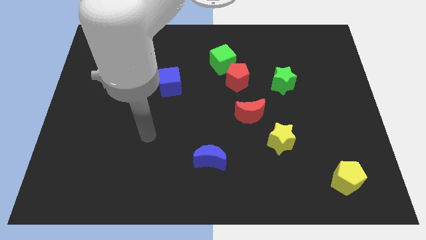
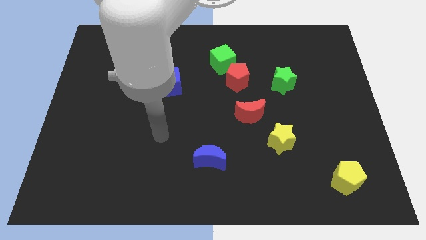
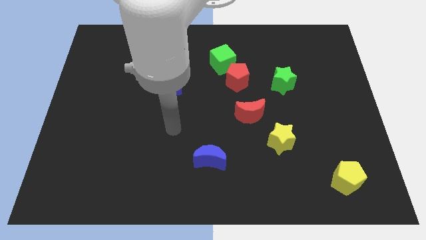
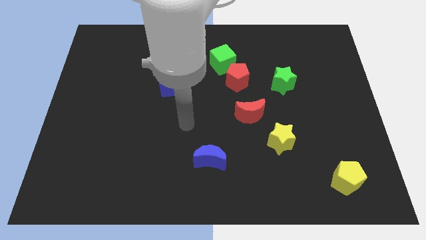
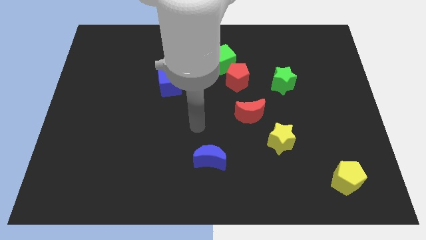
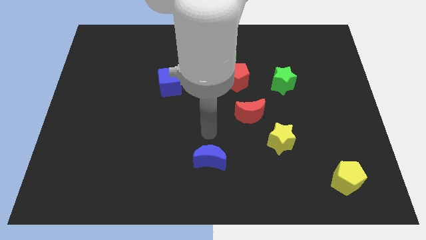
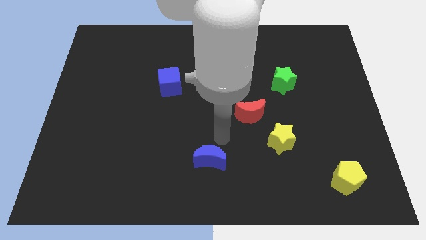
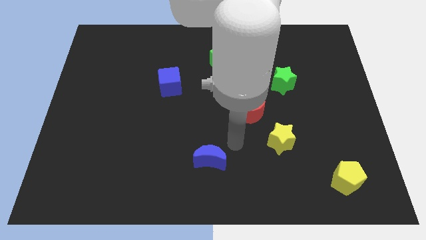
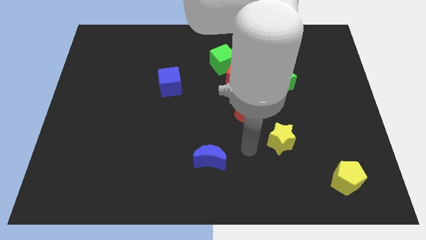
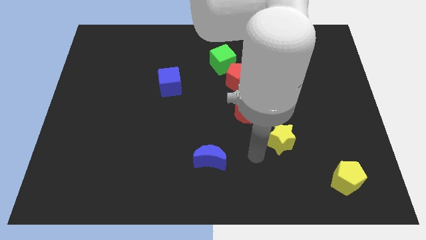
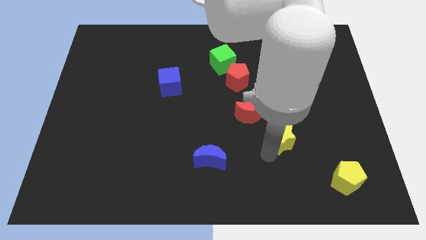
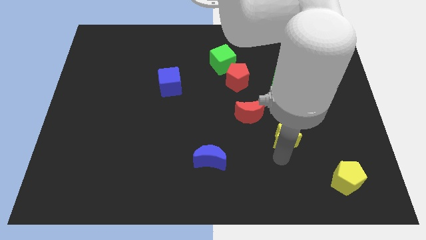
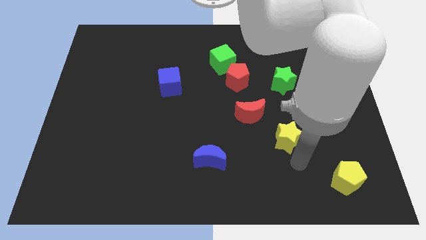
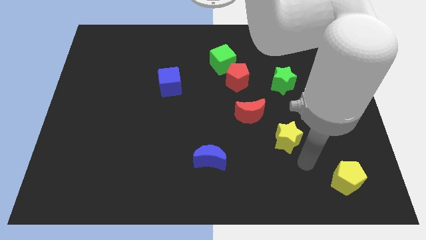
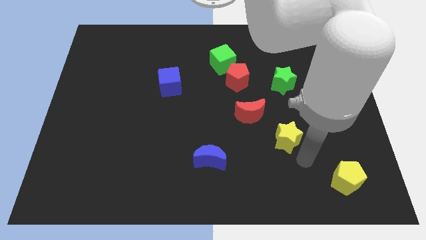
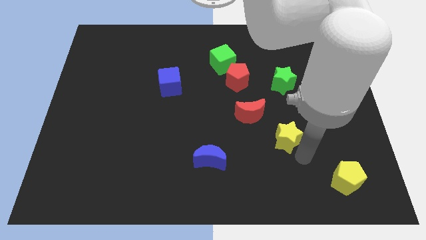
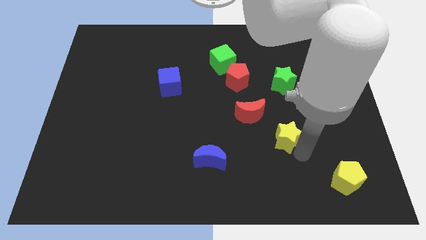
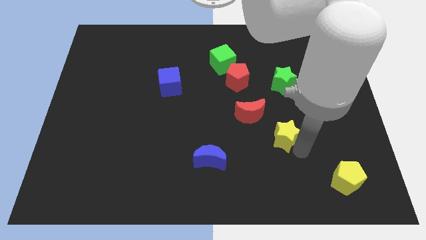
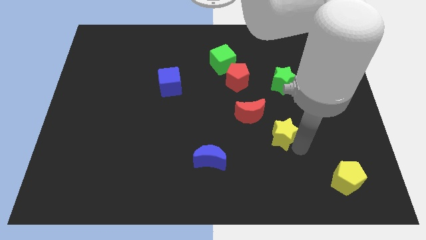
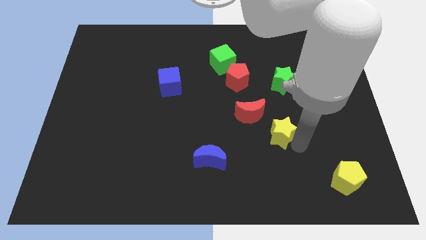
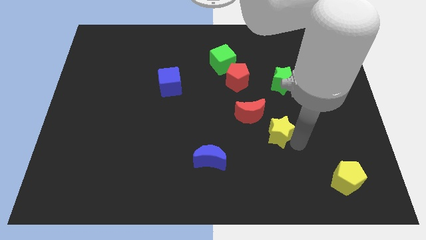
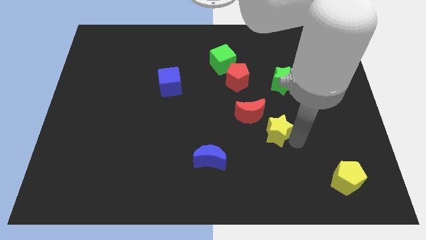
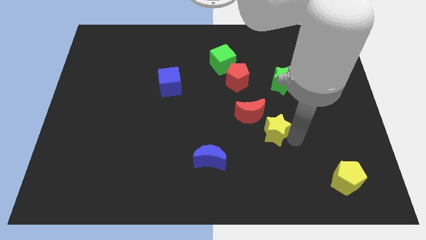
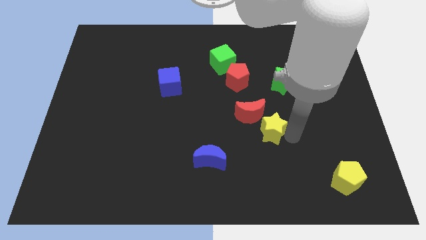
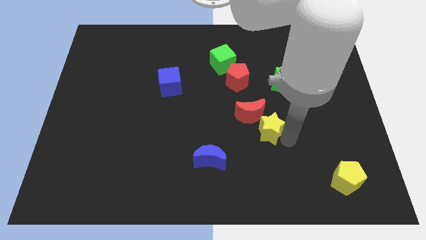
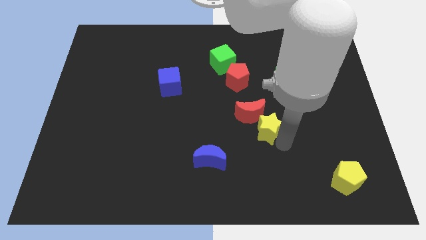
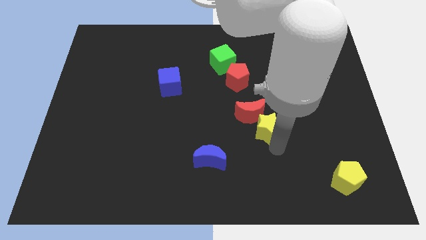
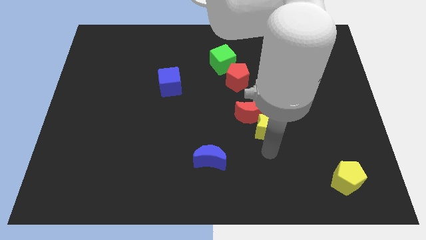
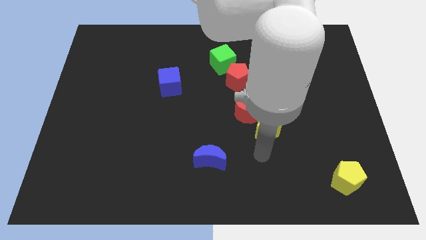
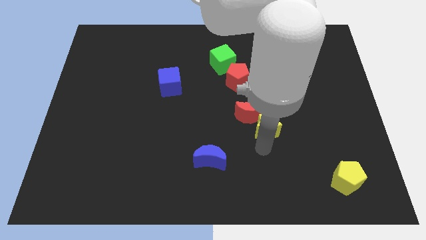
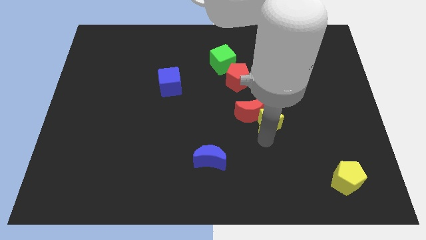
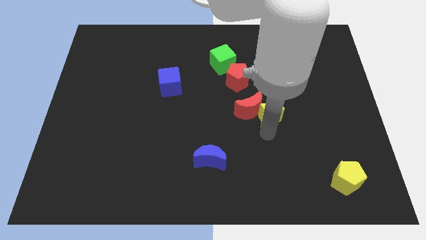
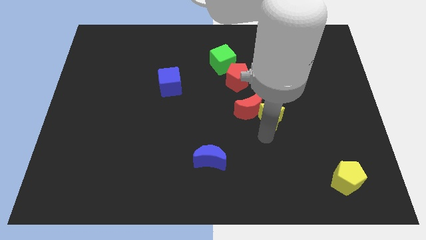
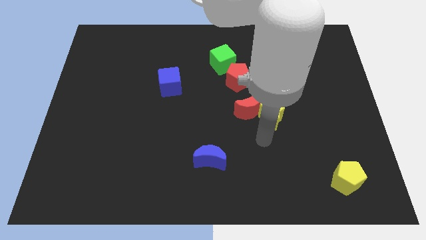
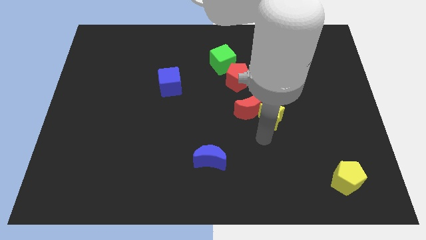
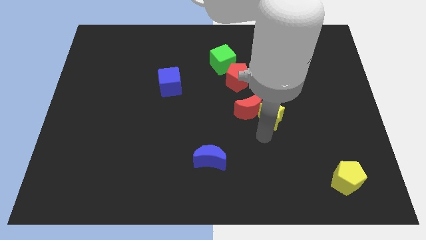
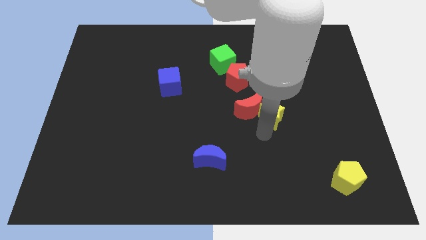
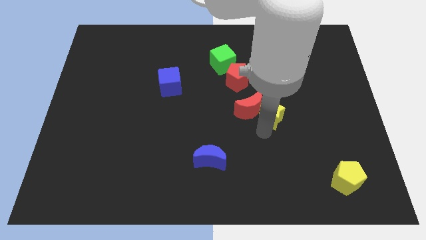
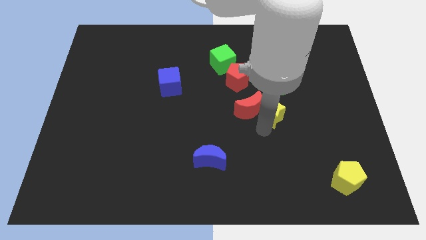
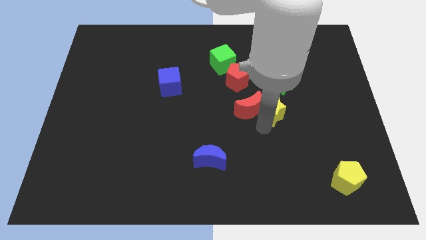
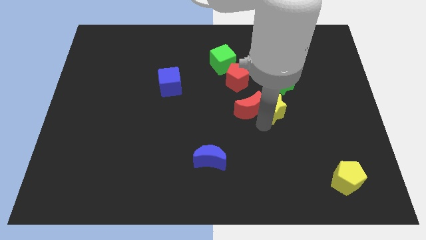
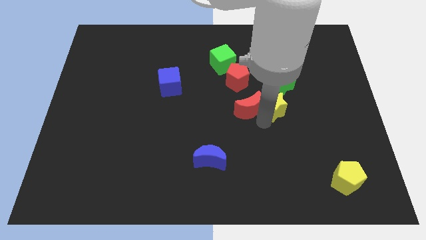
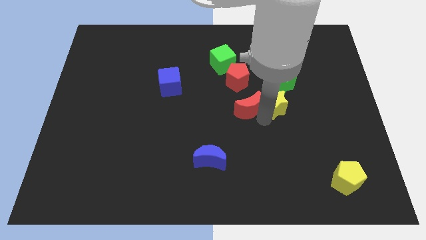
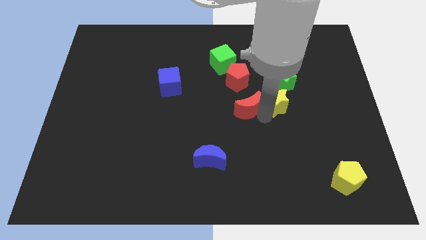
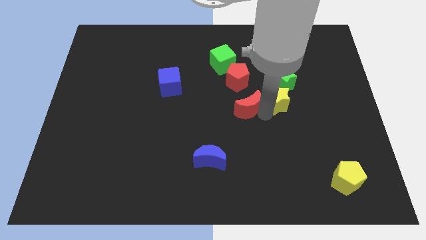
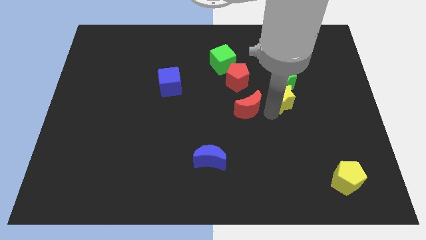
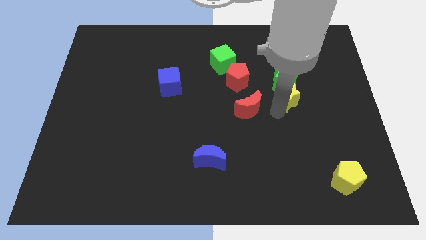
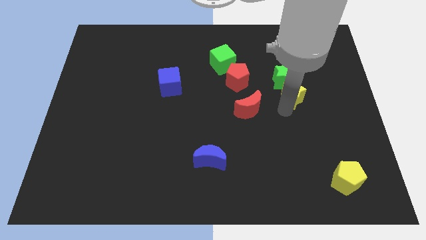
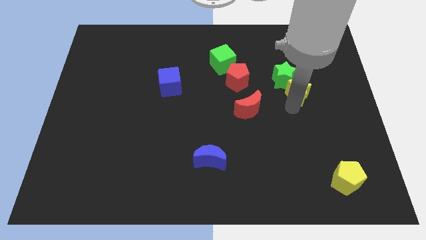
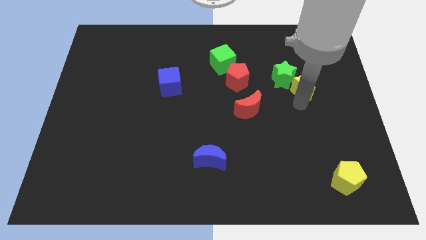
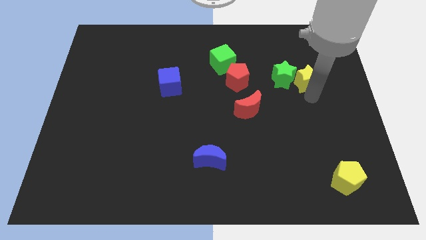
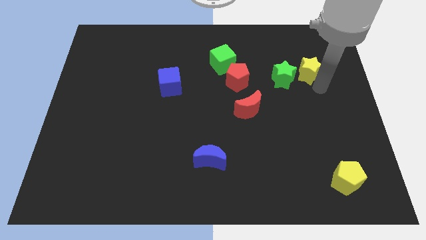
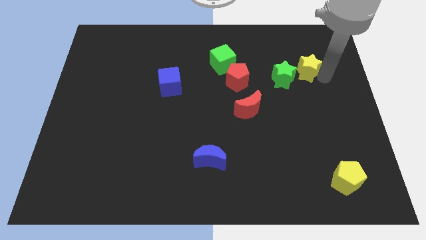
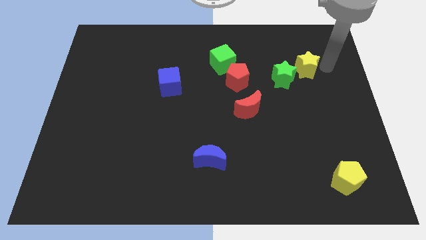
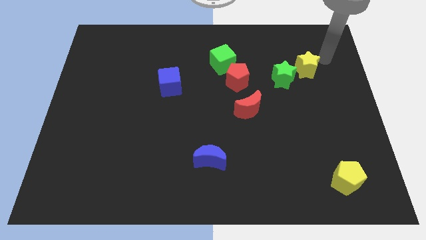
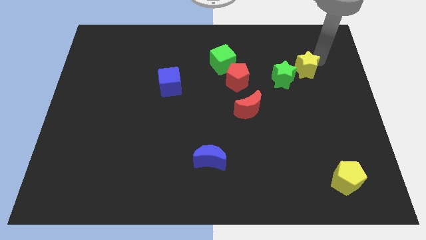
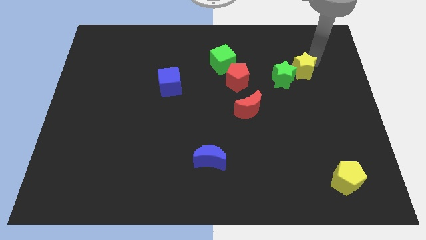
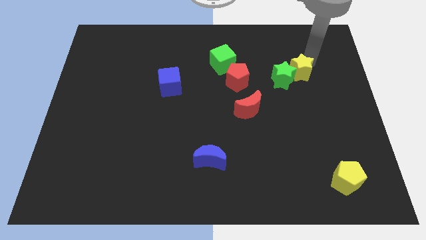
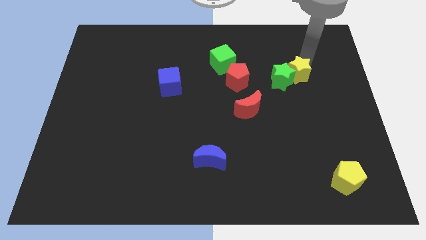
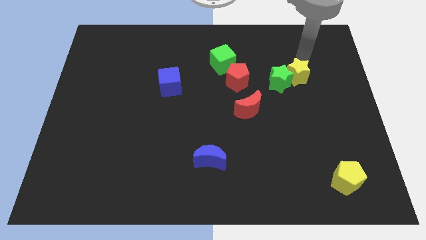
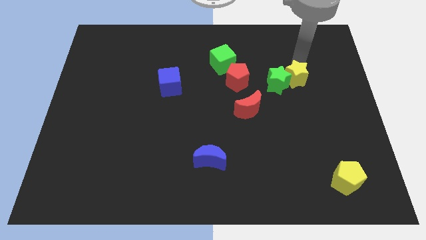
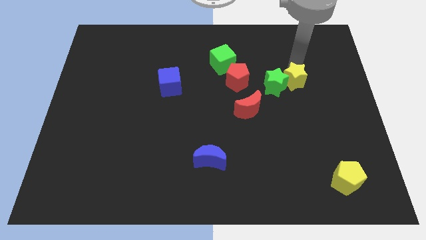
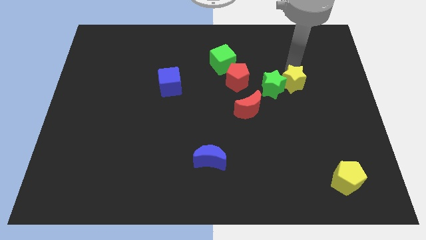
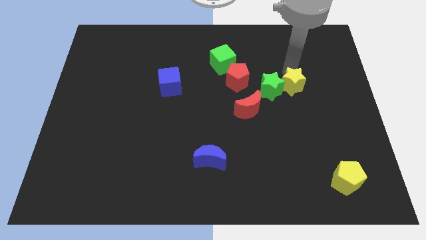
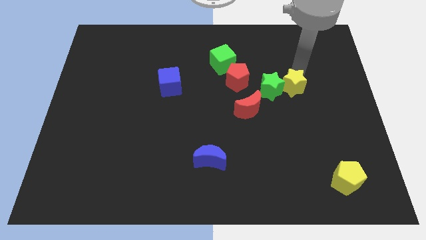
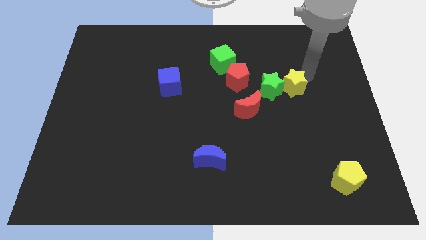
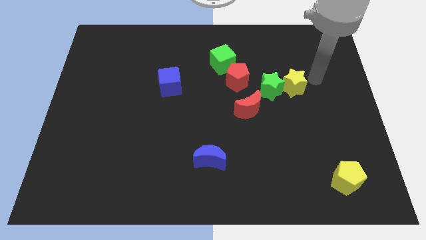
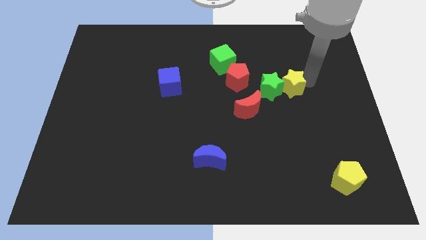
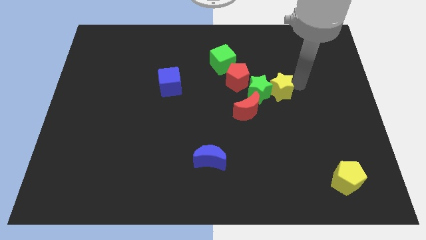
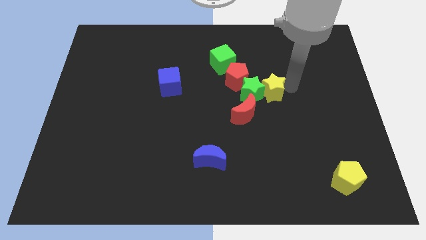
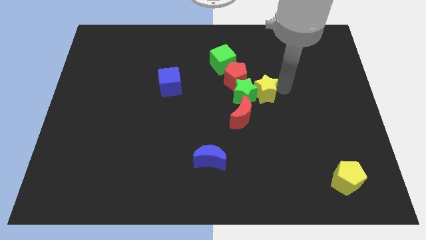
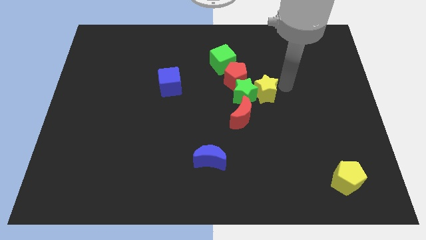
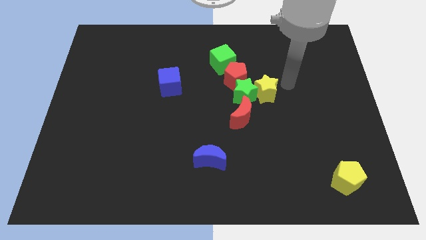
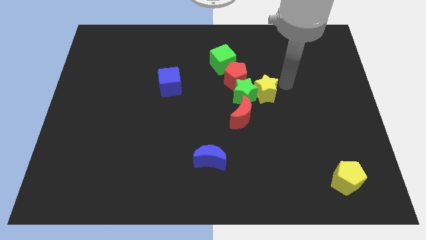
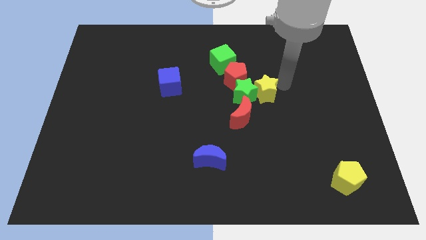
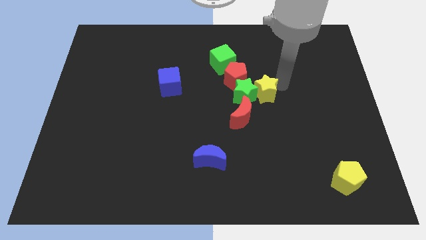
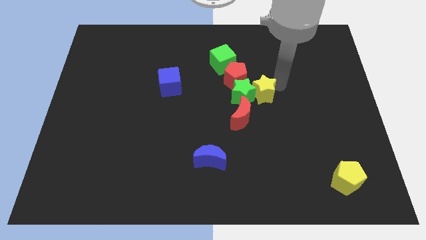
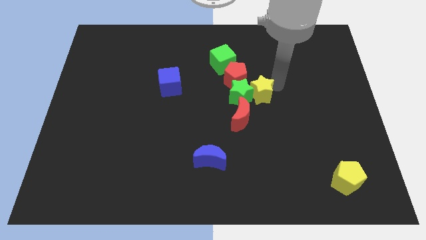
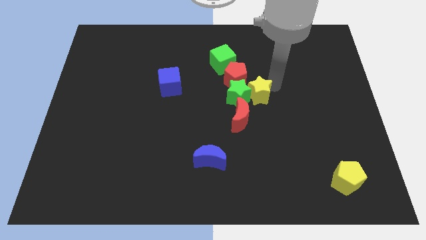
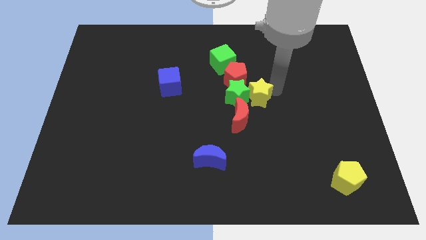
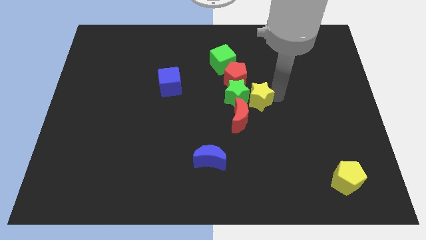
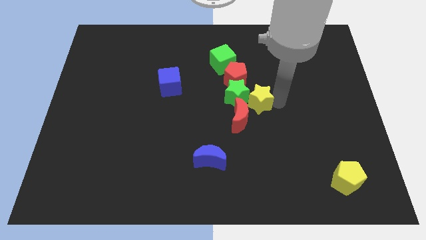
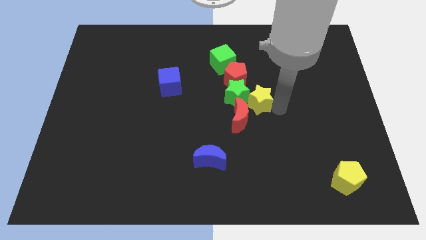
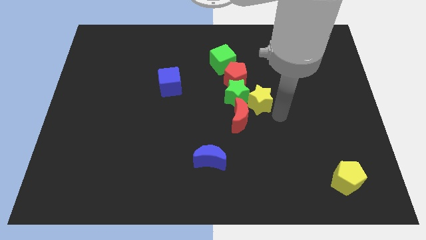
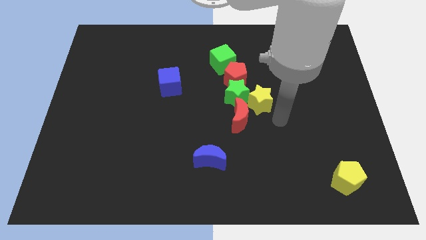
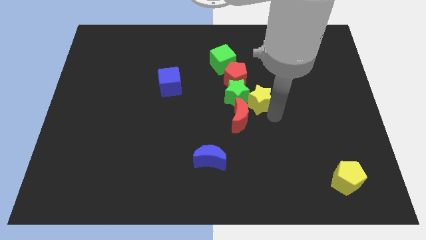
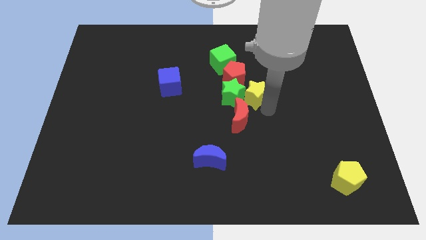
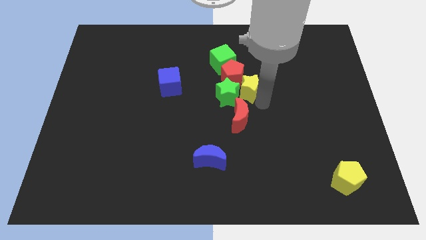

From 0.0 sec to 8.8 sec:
slide the yellow star to the red pentagon
